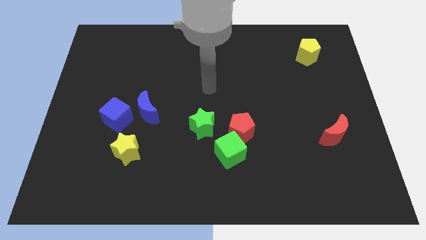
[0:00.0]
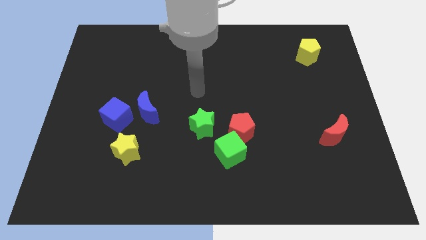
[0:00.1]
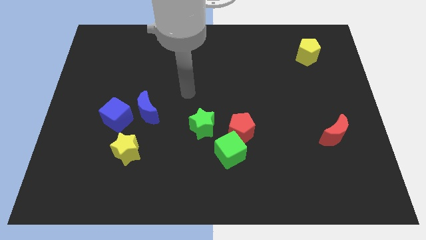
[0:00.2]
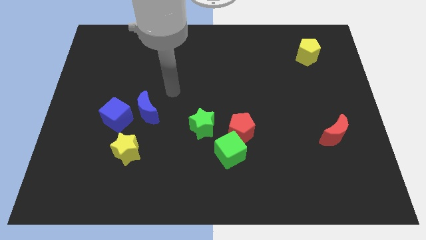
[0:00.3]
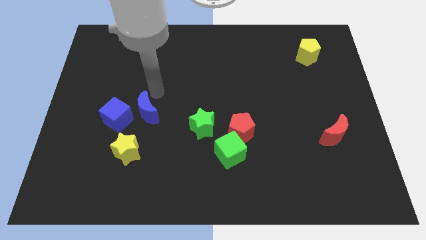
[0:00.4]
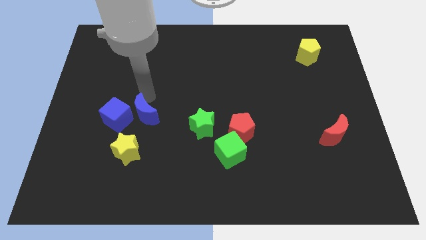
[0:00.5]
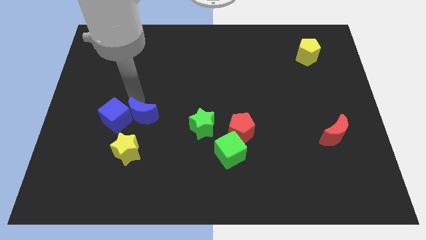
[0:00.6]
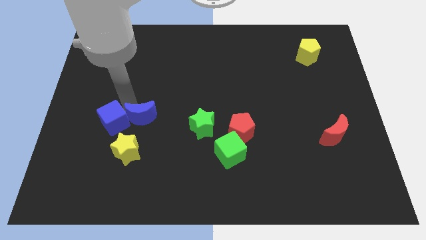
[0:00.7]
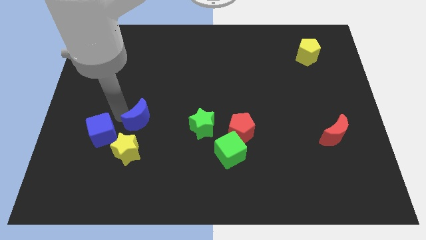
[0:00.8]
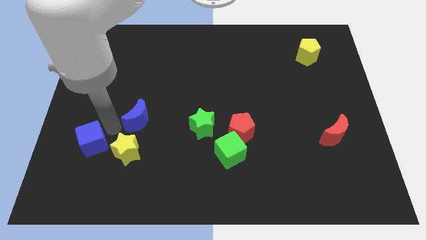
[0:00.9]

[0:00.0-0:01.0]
separate the blue moon from the blue cube

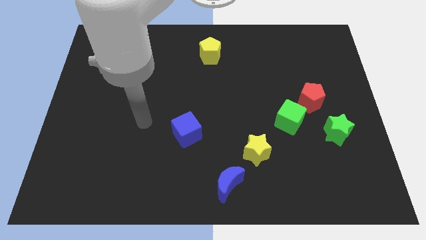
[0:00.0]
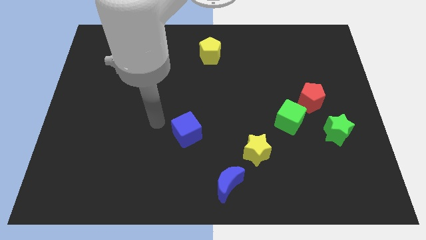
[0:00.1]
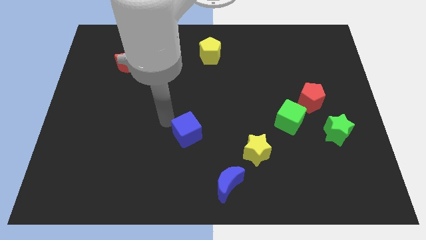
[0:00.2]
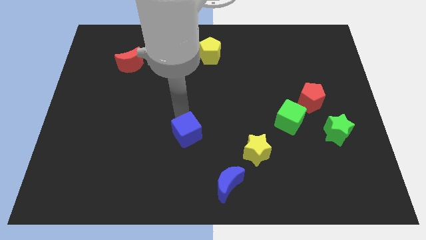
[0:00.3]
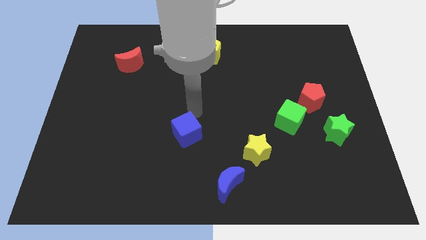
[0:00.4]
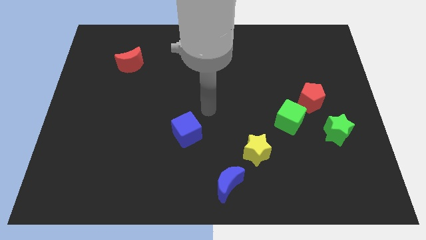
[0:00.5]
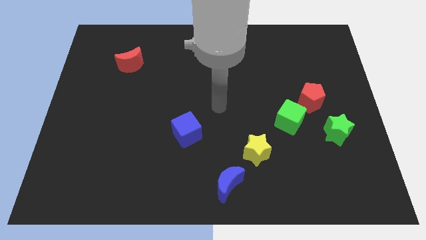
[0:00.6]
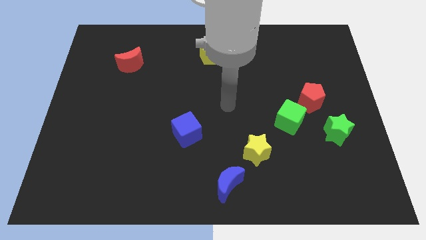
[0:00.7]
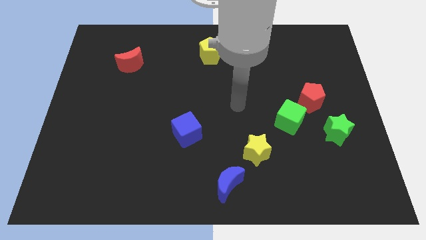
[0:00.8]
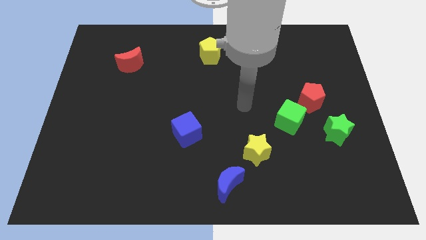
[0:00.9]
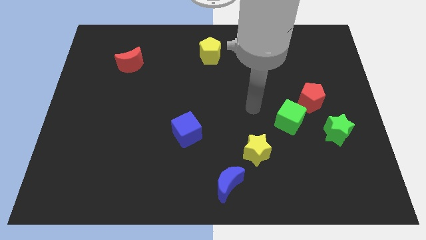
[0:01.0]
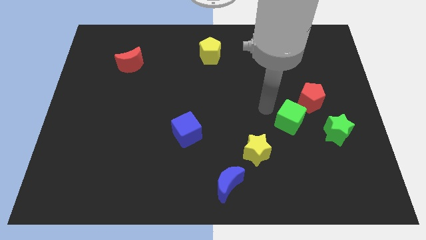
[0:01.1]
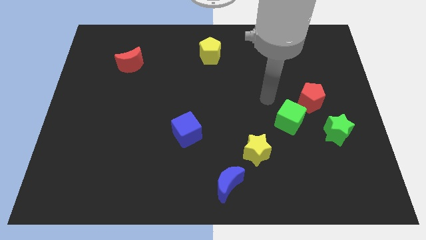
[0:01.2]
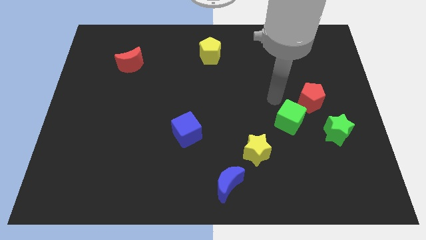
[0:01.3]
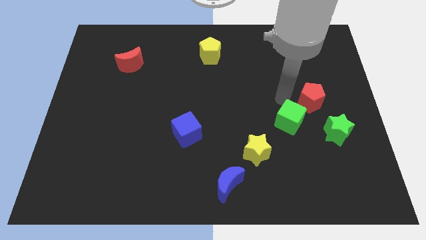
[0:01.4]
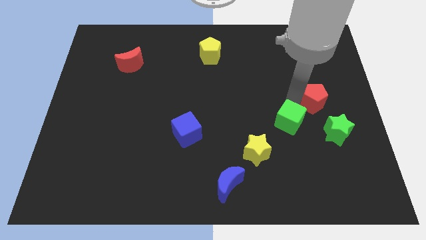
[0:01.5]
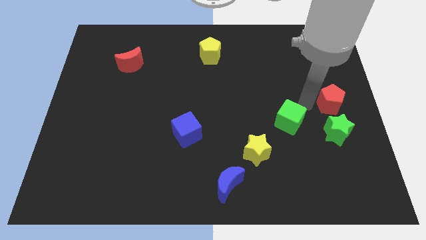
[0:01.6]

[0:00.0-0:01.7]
separate the green cube from the red pentagon

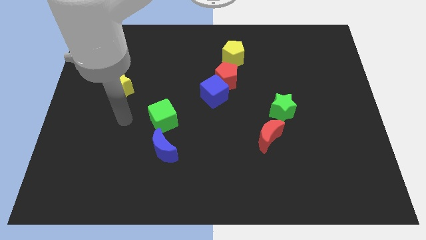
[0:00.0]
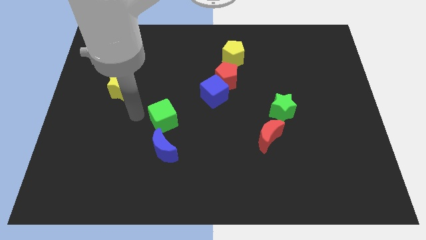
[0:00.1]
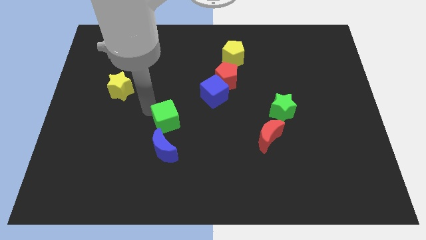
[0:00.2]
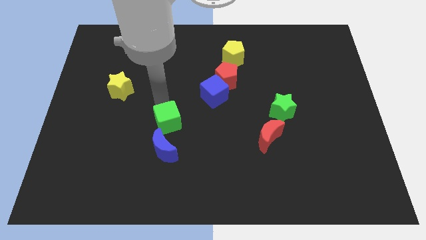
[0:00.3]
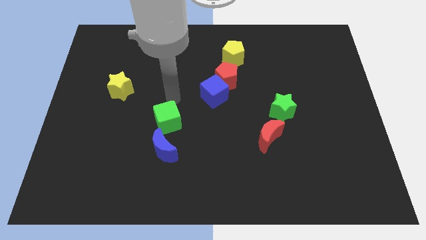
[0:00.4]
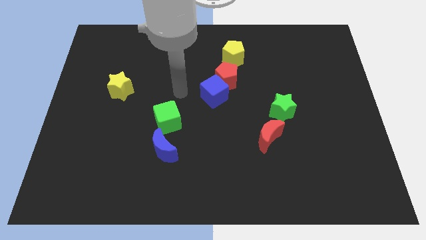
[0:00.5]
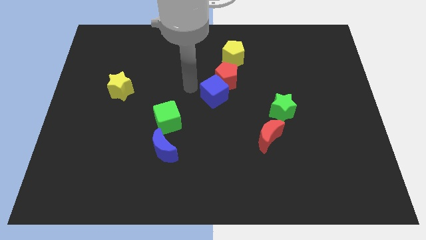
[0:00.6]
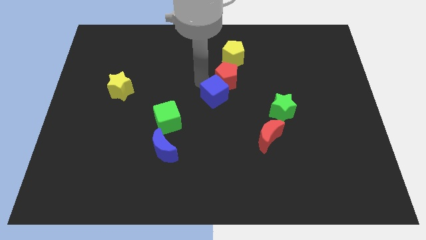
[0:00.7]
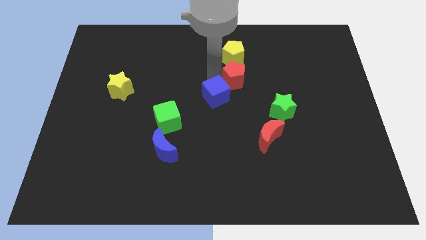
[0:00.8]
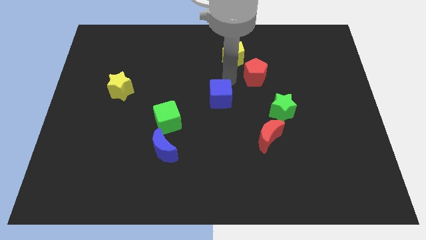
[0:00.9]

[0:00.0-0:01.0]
separate the blue cube from the red pentagon

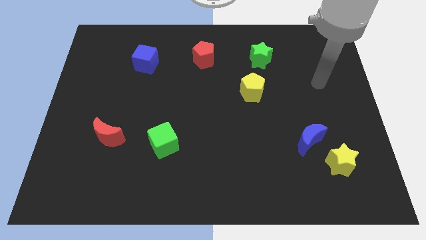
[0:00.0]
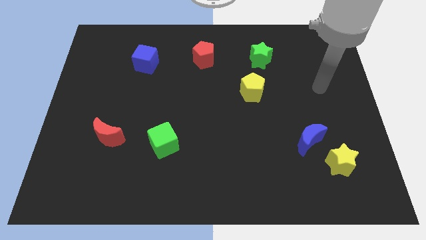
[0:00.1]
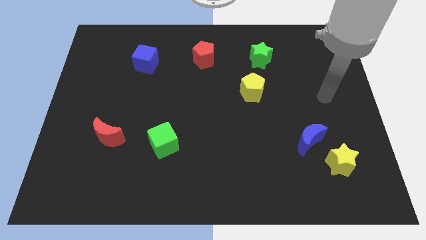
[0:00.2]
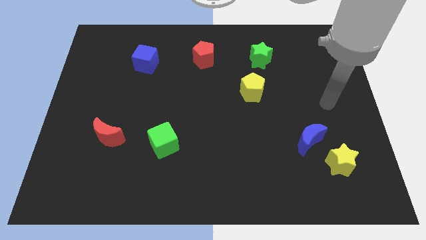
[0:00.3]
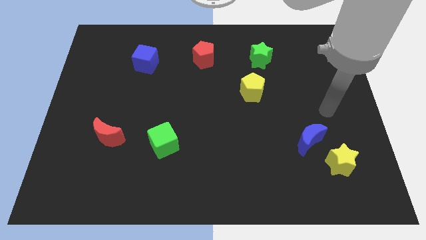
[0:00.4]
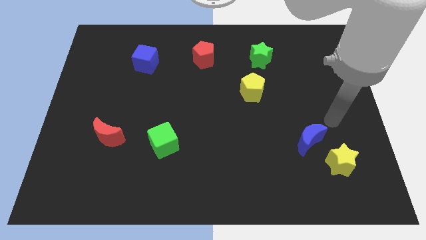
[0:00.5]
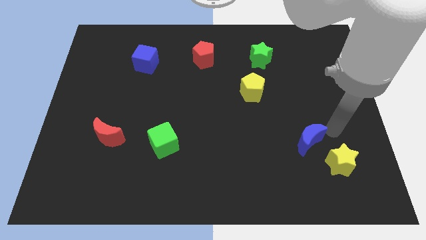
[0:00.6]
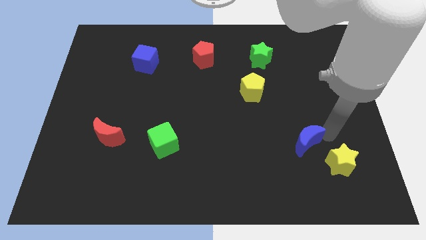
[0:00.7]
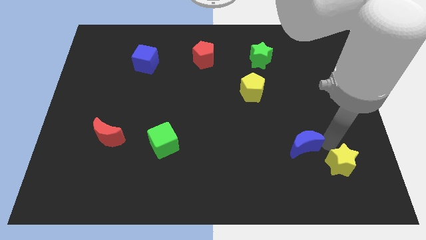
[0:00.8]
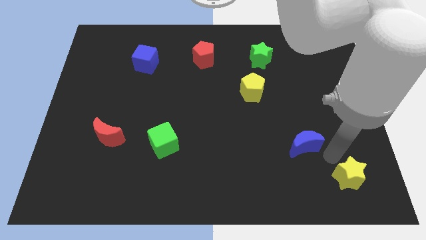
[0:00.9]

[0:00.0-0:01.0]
pull the blue moon apart from the yellow star

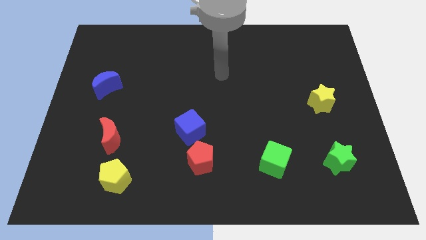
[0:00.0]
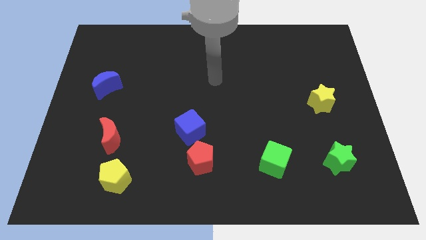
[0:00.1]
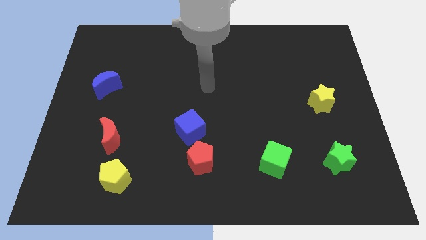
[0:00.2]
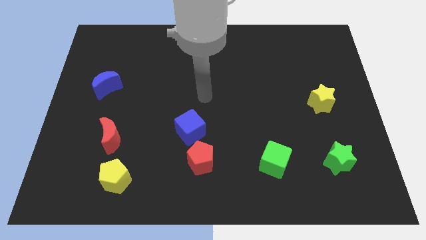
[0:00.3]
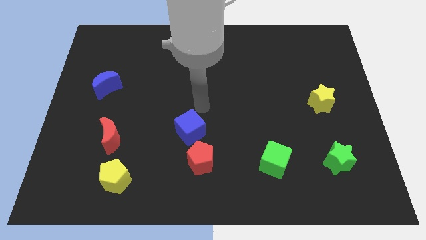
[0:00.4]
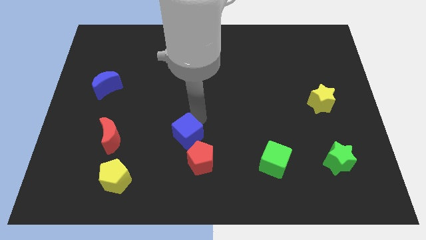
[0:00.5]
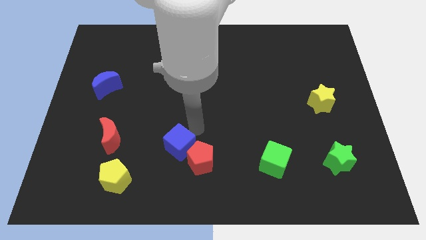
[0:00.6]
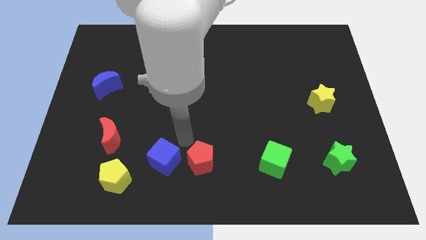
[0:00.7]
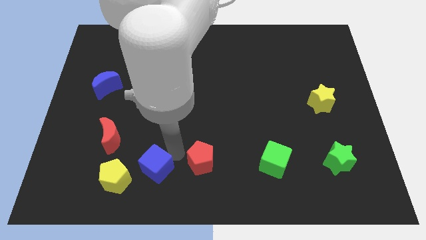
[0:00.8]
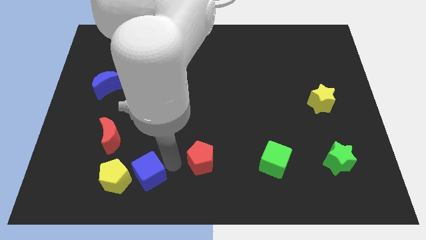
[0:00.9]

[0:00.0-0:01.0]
separate the red pentagon from the blue cube

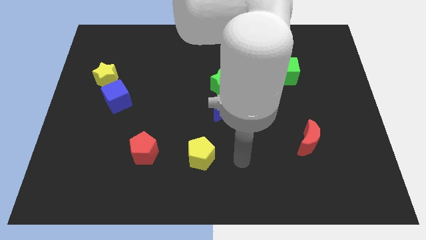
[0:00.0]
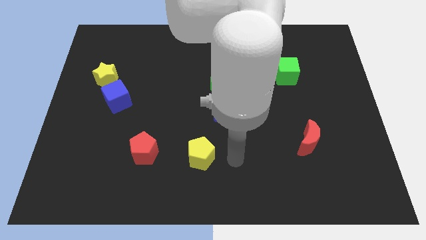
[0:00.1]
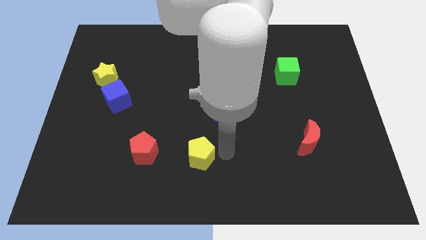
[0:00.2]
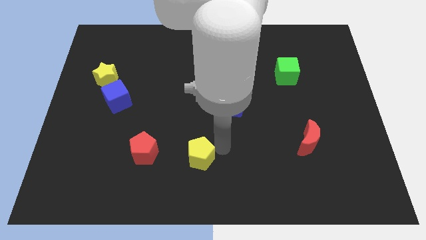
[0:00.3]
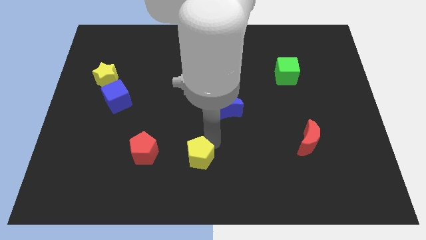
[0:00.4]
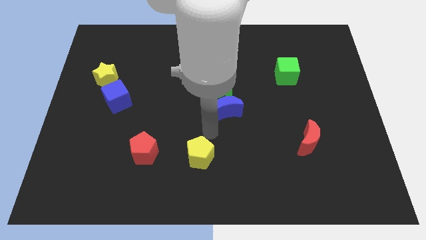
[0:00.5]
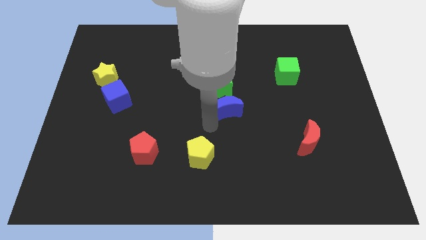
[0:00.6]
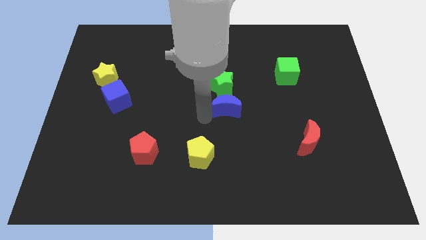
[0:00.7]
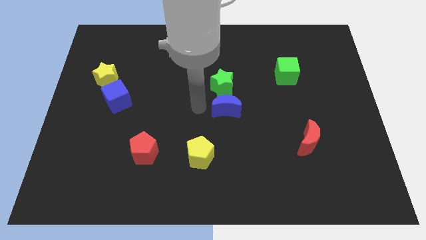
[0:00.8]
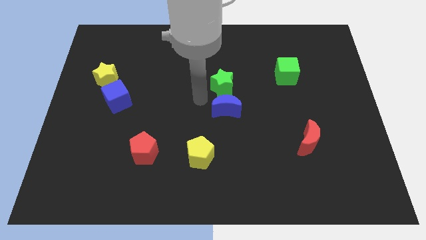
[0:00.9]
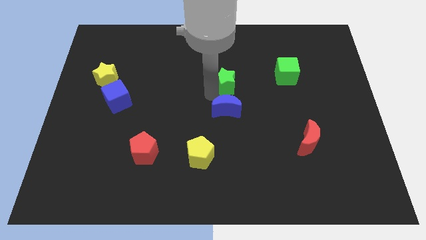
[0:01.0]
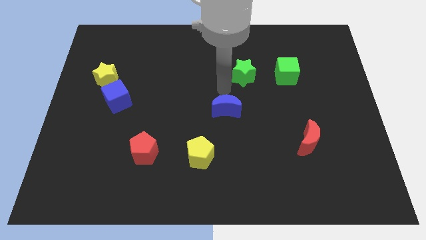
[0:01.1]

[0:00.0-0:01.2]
separate the blue moon from the green star

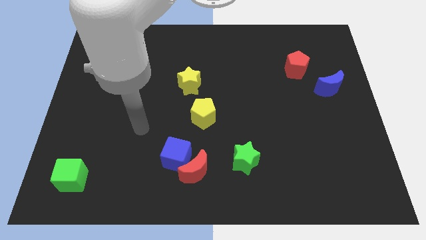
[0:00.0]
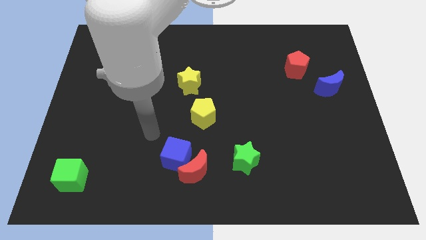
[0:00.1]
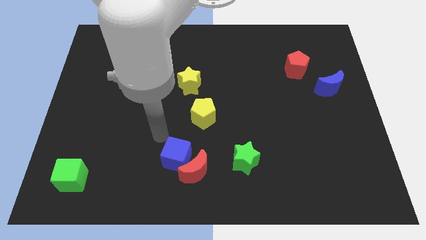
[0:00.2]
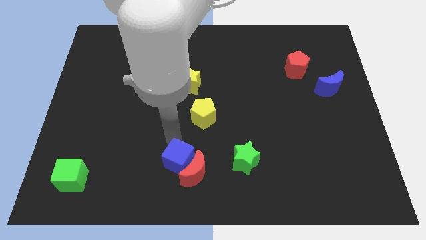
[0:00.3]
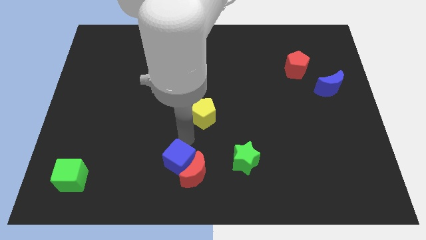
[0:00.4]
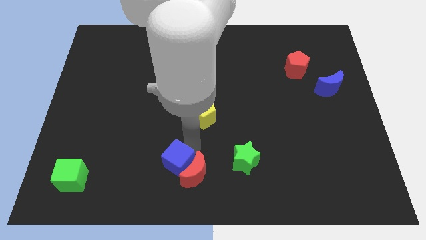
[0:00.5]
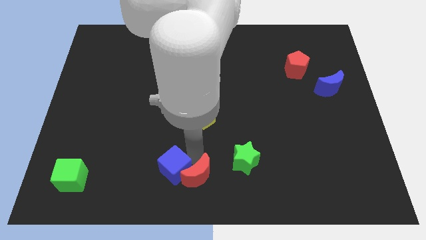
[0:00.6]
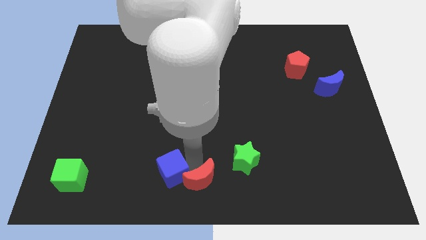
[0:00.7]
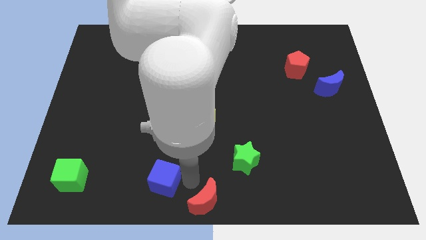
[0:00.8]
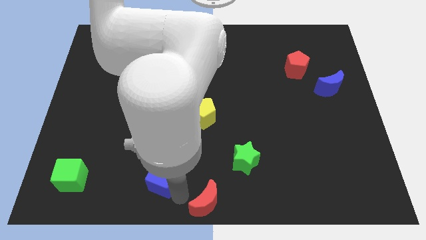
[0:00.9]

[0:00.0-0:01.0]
pull the blue cube apart from the red moon

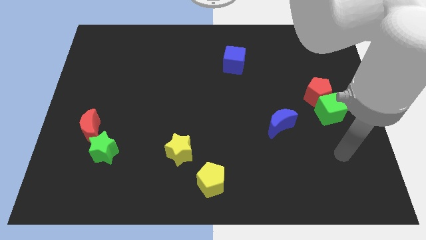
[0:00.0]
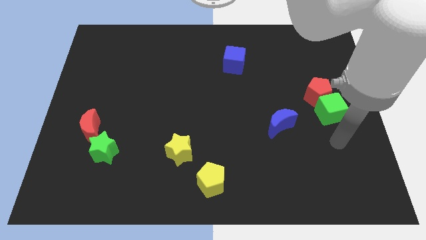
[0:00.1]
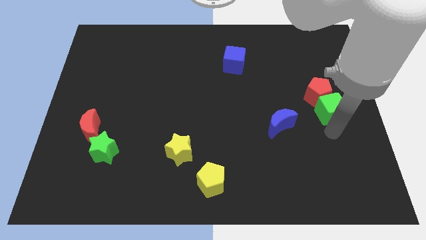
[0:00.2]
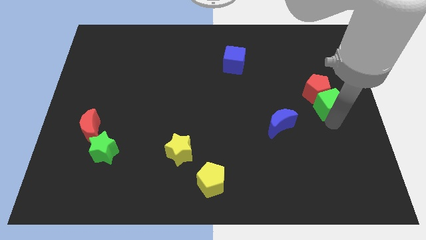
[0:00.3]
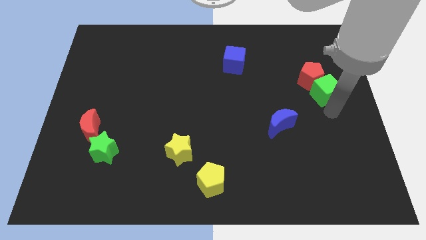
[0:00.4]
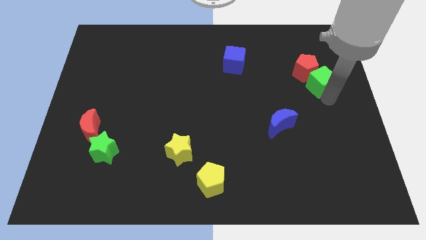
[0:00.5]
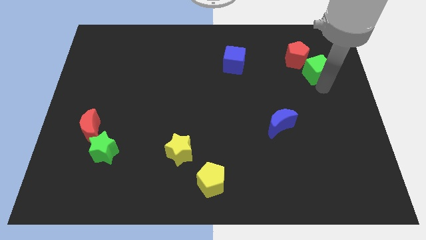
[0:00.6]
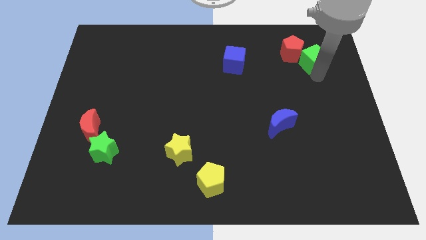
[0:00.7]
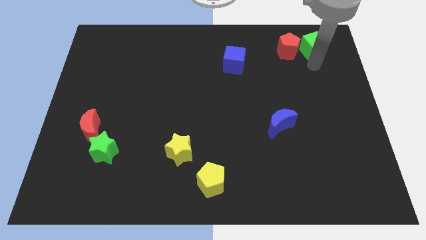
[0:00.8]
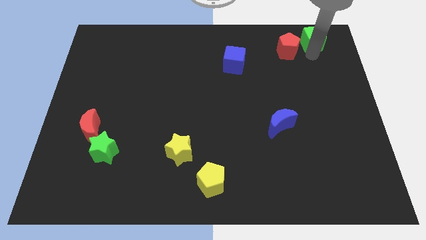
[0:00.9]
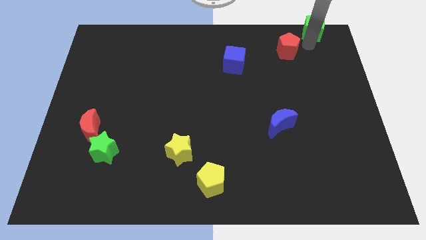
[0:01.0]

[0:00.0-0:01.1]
separate the red pentagon from the green cube

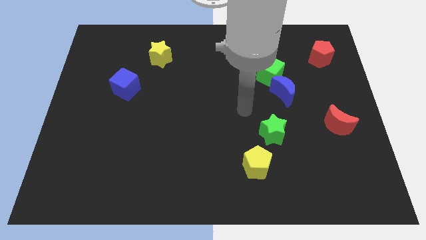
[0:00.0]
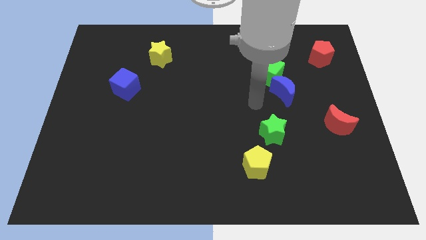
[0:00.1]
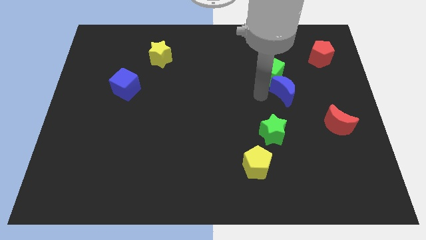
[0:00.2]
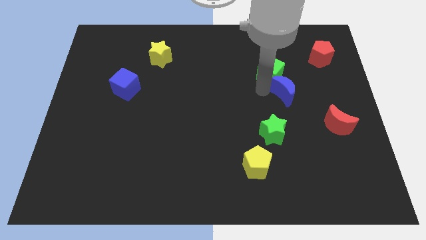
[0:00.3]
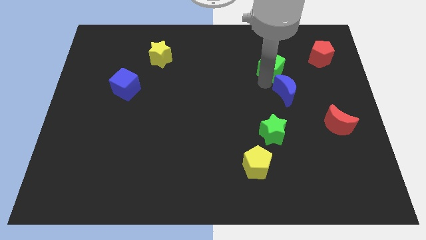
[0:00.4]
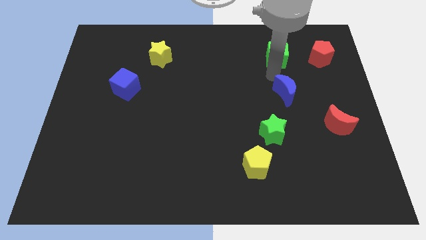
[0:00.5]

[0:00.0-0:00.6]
pull the blue moon apart from the green cube
